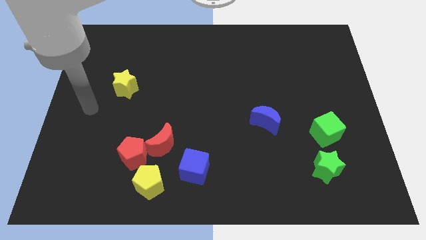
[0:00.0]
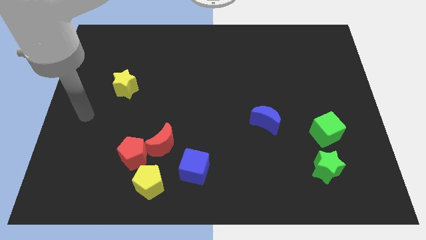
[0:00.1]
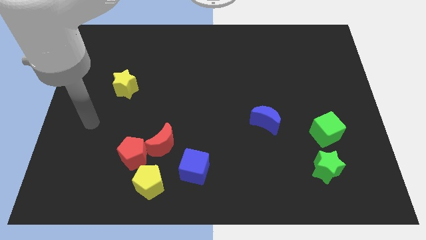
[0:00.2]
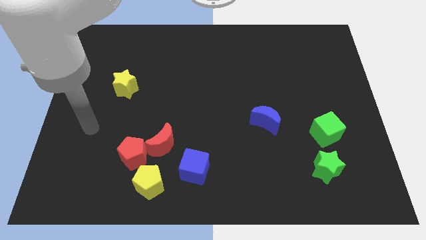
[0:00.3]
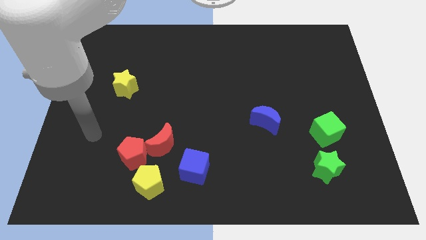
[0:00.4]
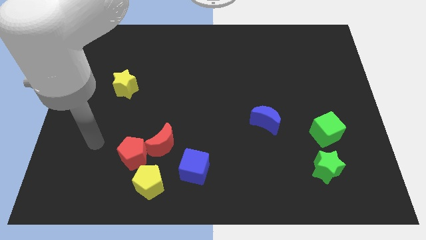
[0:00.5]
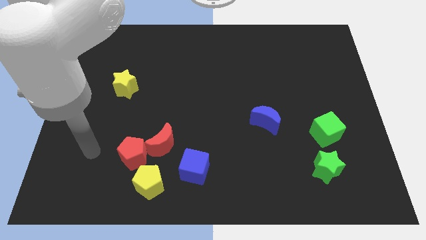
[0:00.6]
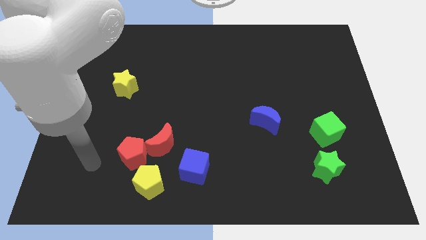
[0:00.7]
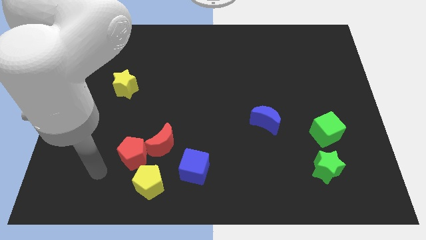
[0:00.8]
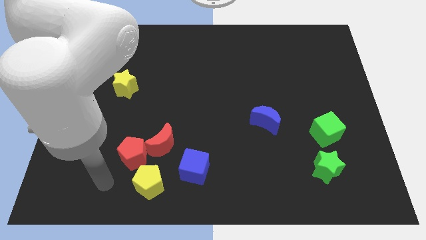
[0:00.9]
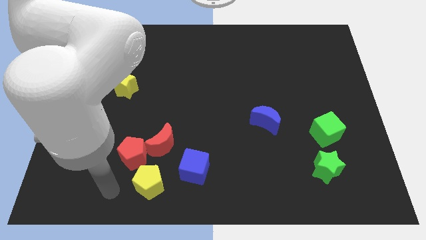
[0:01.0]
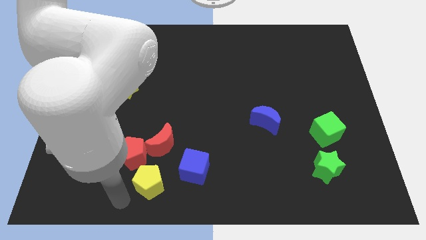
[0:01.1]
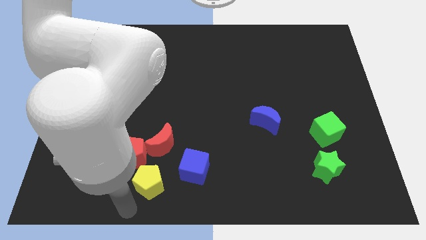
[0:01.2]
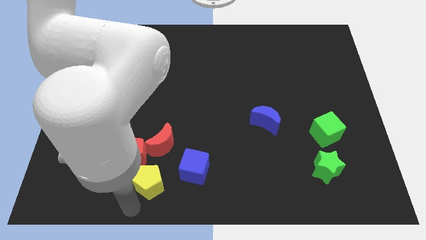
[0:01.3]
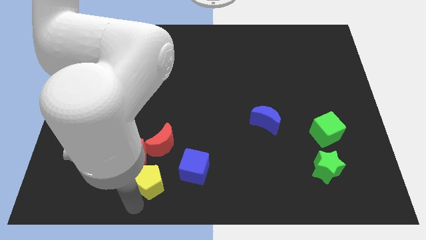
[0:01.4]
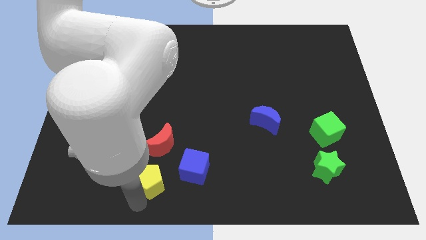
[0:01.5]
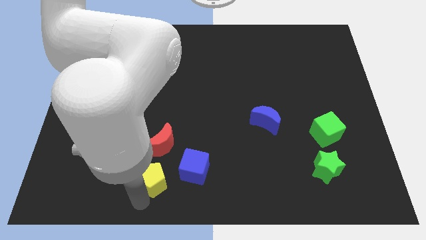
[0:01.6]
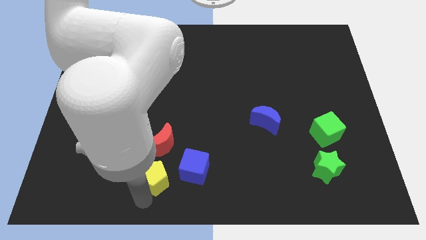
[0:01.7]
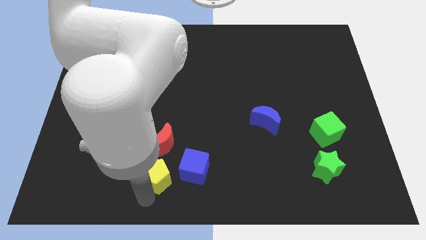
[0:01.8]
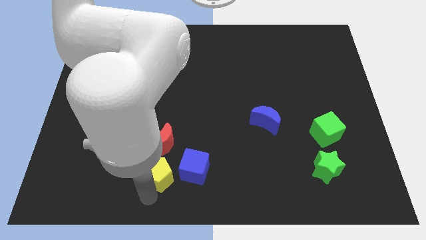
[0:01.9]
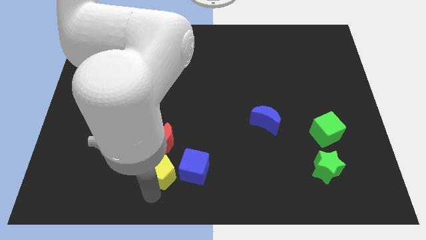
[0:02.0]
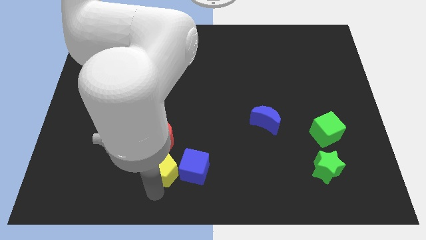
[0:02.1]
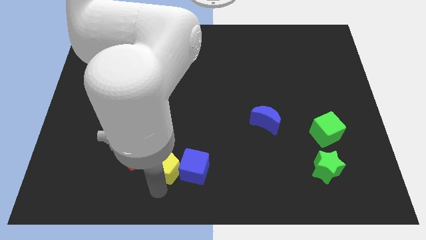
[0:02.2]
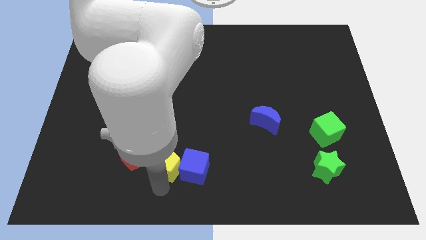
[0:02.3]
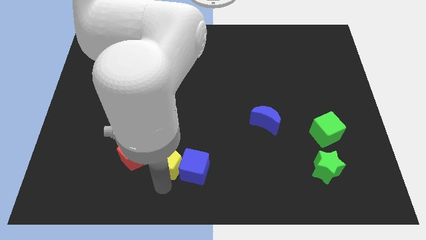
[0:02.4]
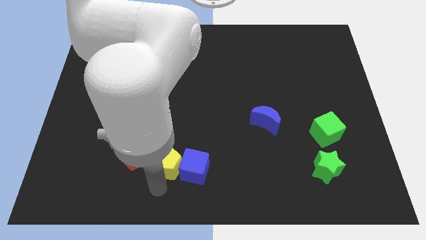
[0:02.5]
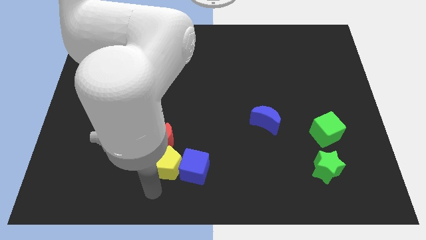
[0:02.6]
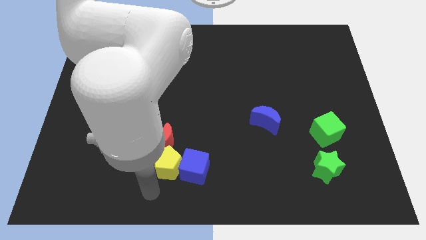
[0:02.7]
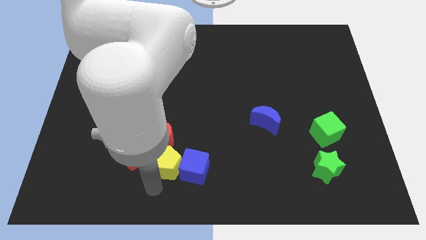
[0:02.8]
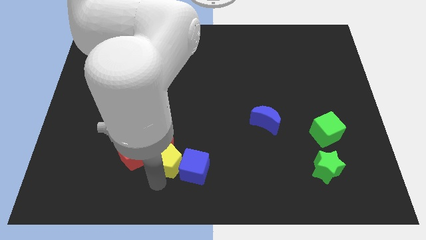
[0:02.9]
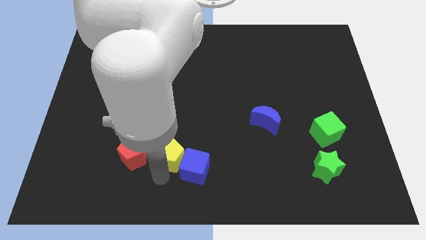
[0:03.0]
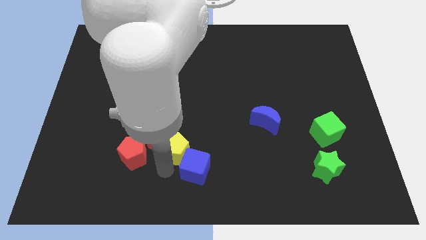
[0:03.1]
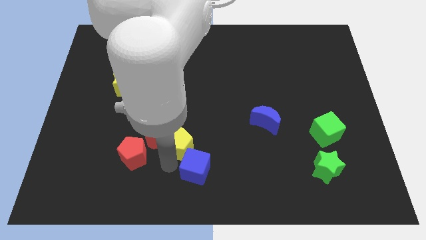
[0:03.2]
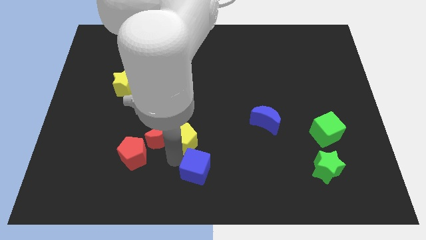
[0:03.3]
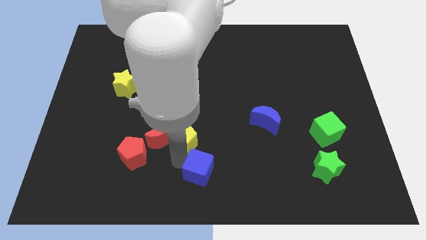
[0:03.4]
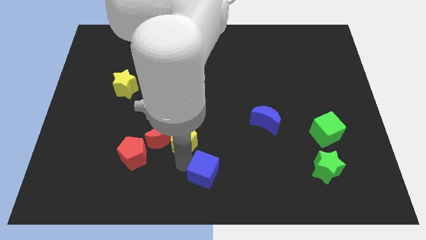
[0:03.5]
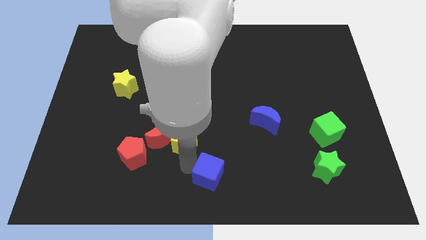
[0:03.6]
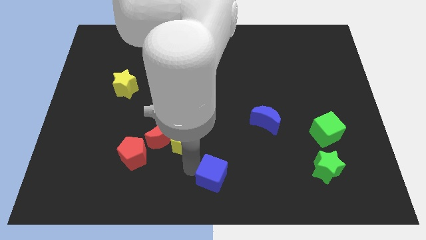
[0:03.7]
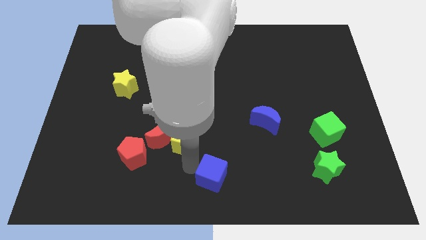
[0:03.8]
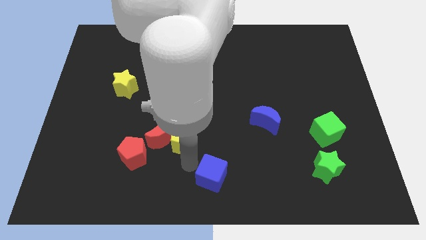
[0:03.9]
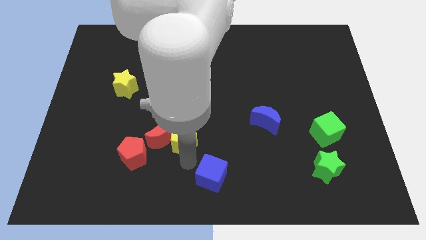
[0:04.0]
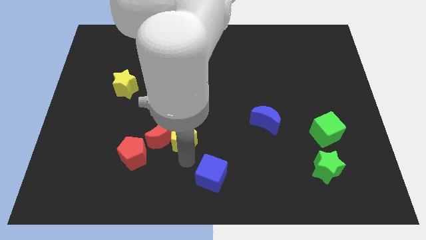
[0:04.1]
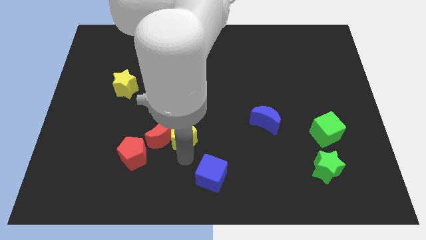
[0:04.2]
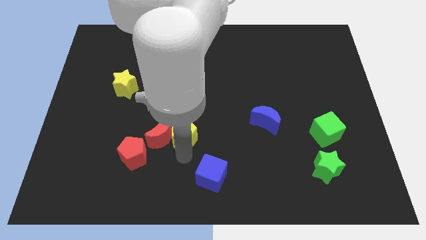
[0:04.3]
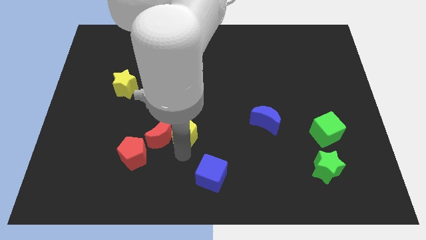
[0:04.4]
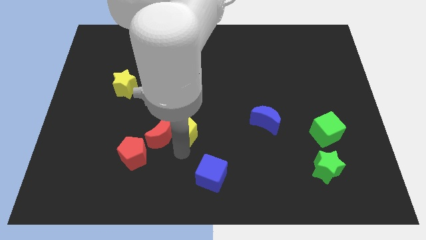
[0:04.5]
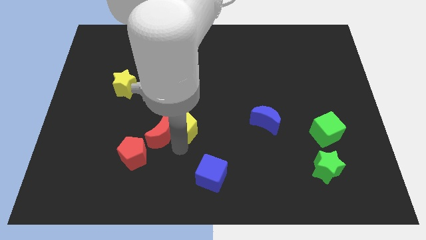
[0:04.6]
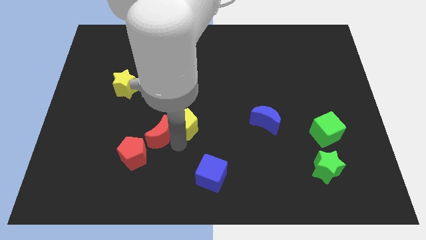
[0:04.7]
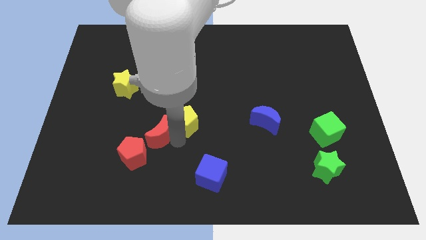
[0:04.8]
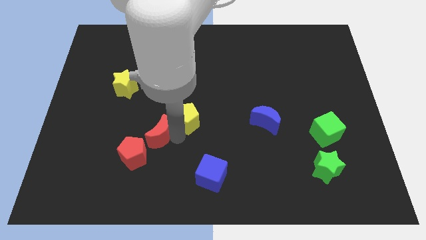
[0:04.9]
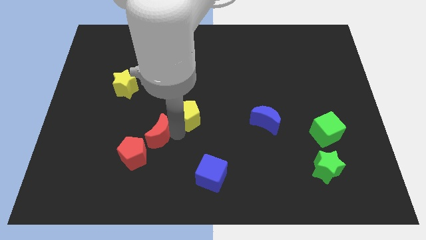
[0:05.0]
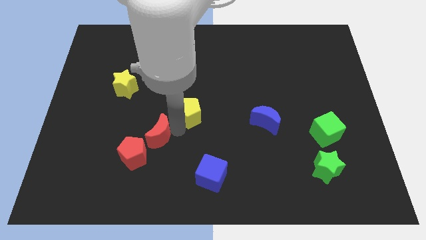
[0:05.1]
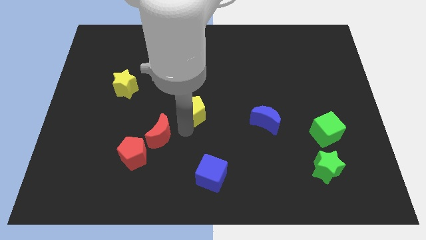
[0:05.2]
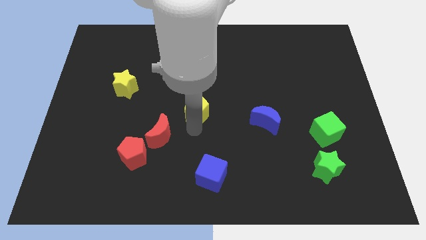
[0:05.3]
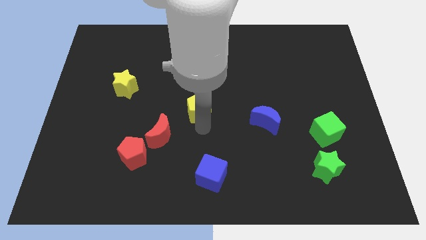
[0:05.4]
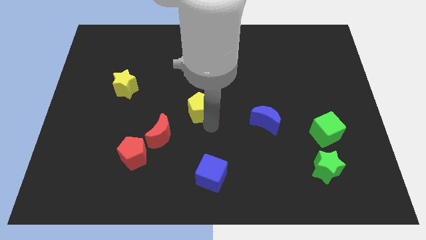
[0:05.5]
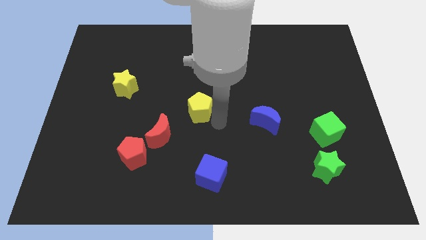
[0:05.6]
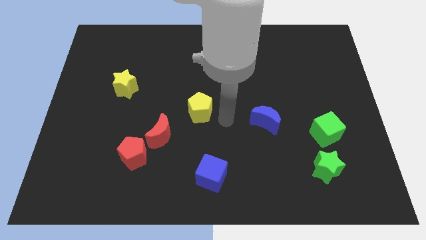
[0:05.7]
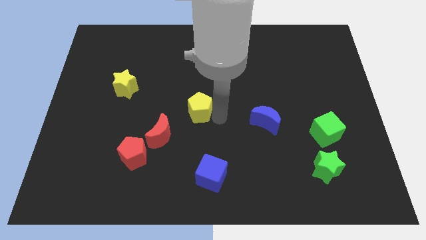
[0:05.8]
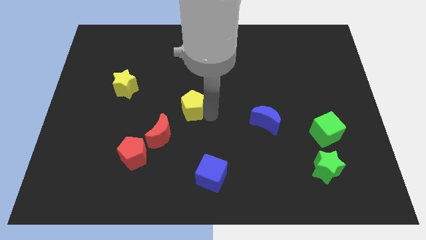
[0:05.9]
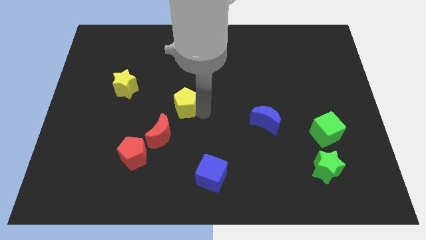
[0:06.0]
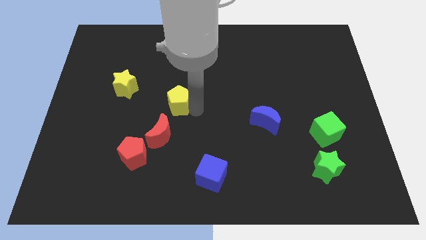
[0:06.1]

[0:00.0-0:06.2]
move the yellow pentagon above the red moon

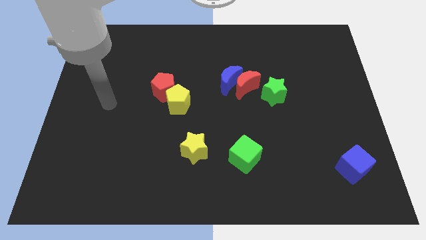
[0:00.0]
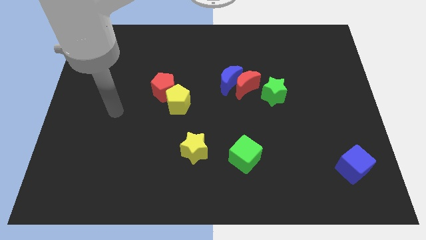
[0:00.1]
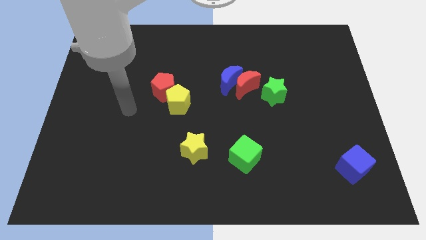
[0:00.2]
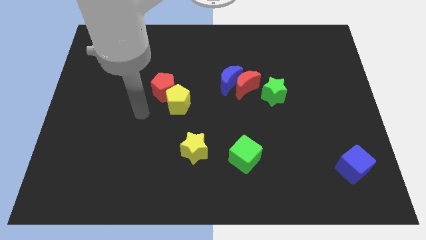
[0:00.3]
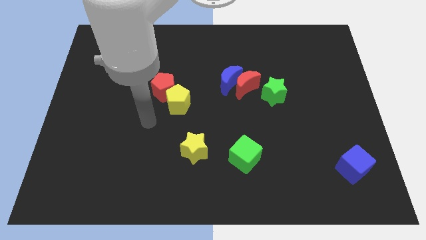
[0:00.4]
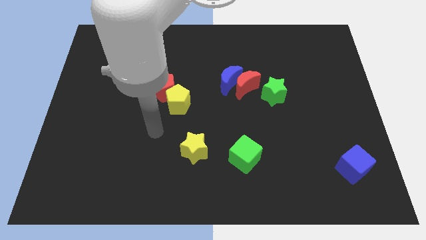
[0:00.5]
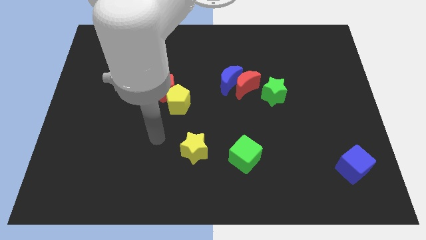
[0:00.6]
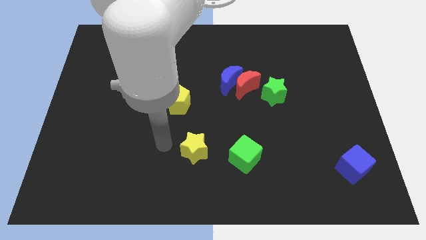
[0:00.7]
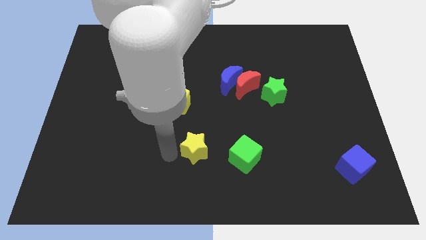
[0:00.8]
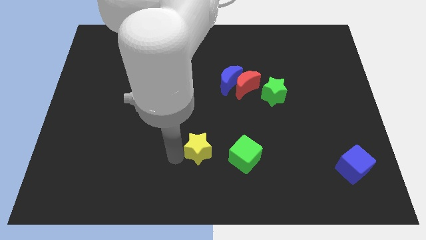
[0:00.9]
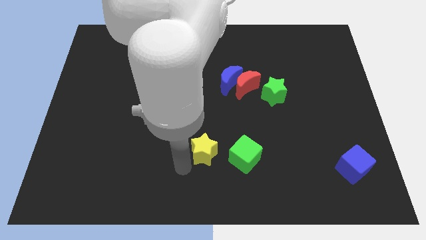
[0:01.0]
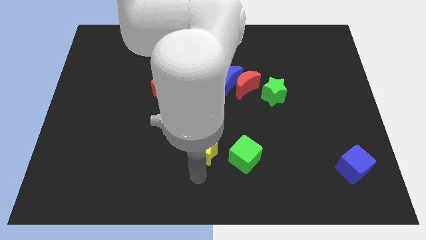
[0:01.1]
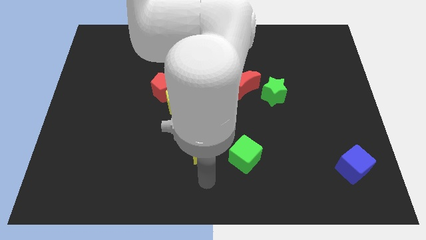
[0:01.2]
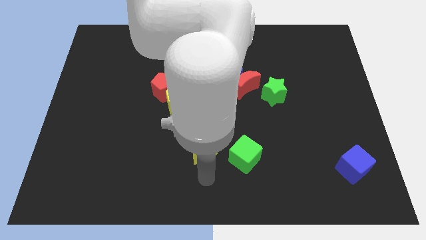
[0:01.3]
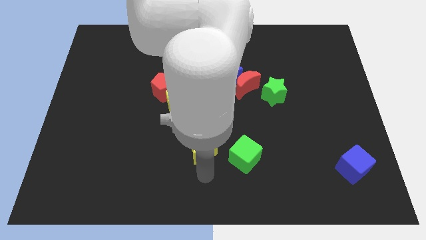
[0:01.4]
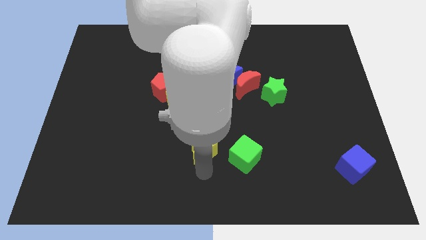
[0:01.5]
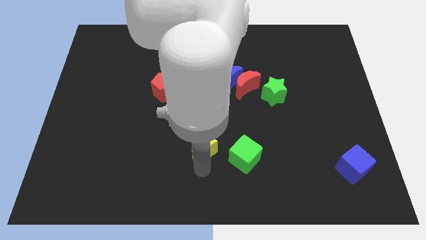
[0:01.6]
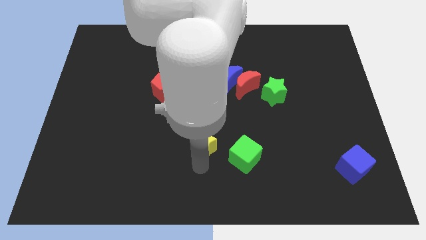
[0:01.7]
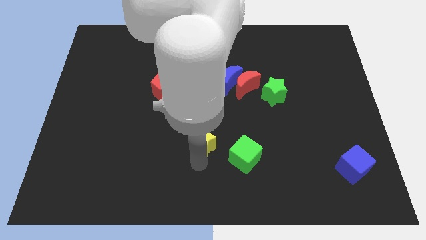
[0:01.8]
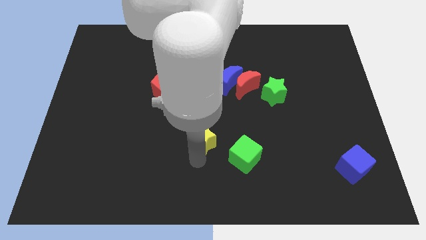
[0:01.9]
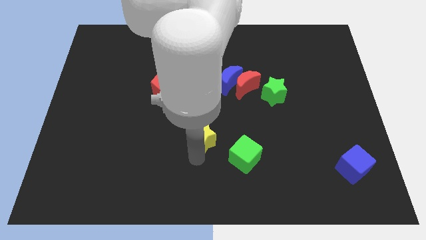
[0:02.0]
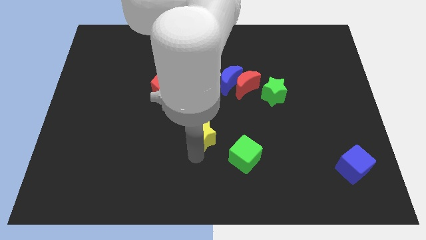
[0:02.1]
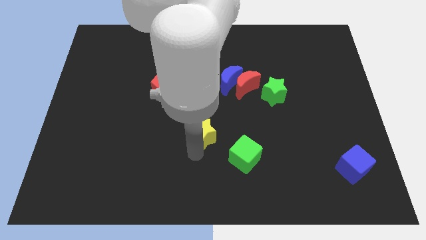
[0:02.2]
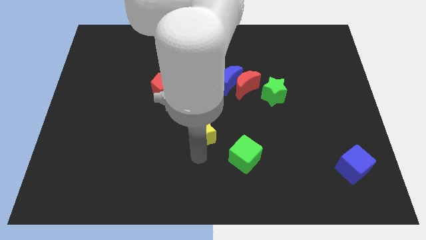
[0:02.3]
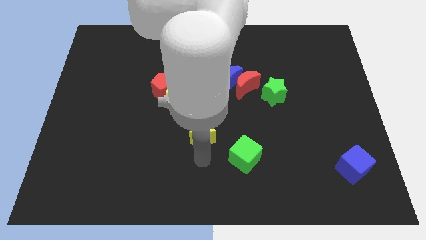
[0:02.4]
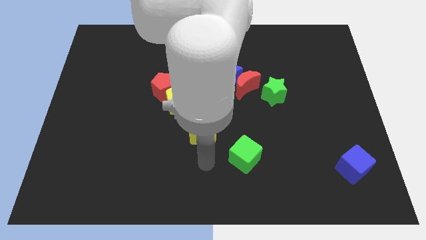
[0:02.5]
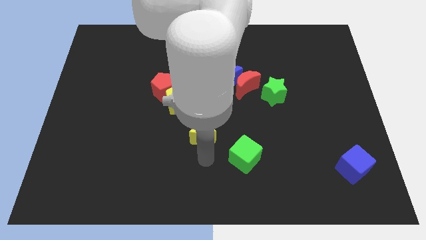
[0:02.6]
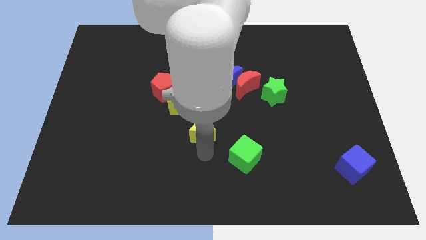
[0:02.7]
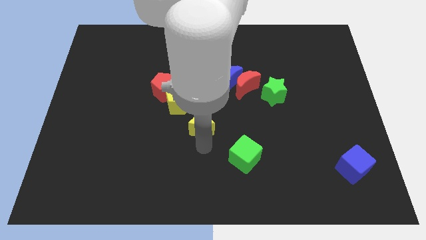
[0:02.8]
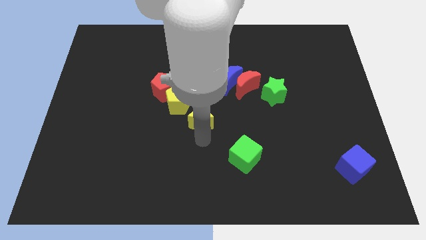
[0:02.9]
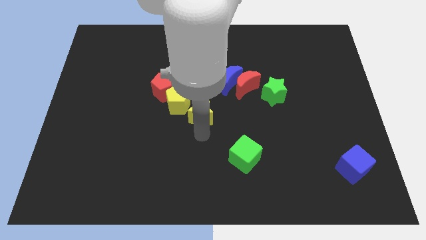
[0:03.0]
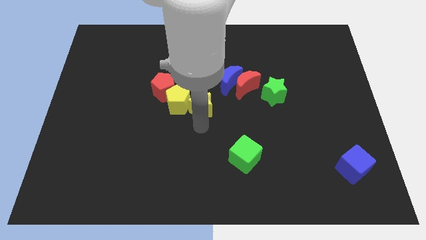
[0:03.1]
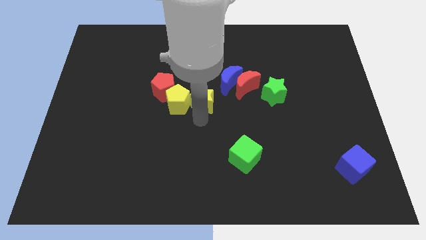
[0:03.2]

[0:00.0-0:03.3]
slide the yellow star right of the red pentagon
